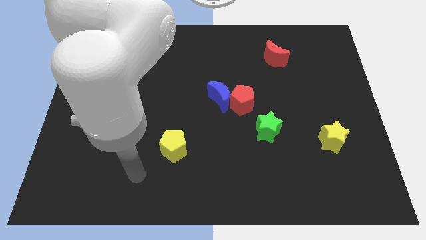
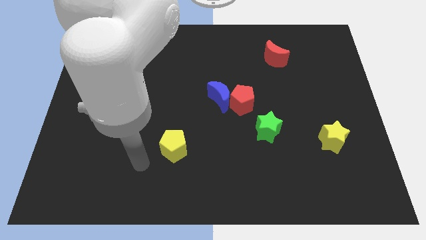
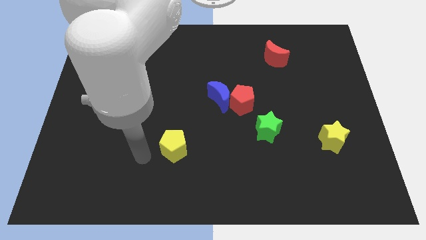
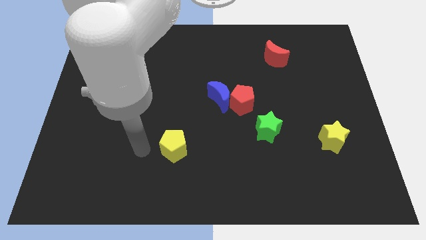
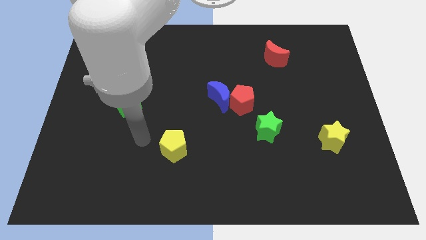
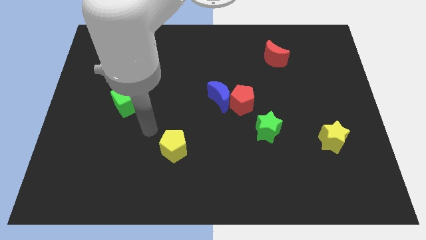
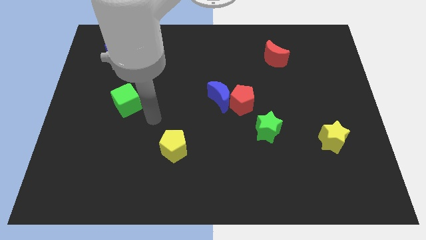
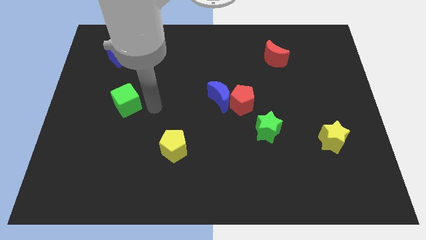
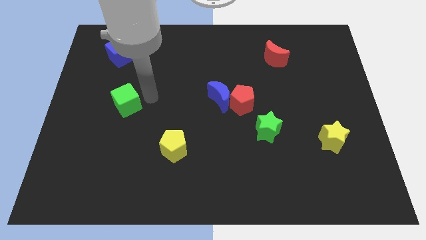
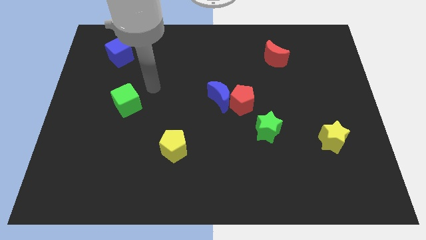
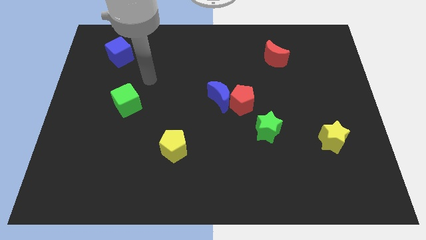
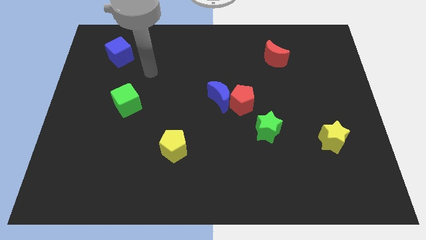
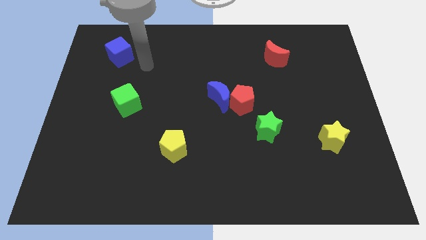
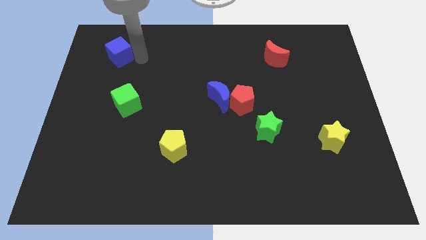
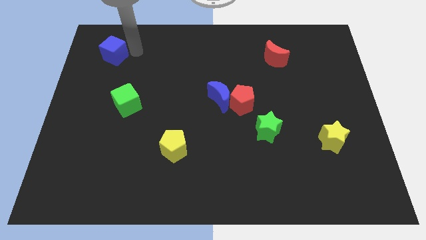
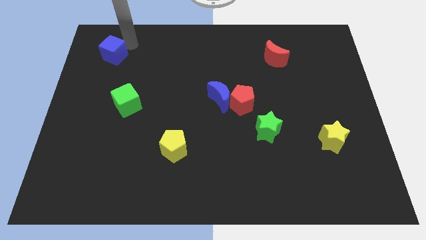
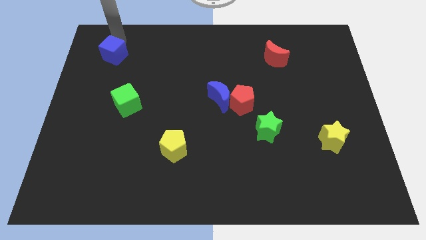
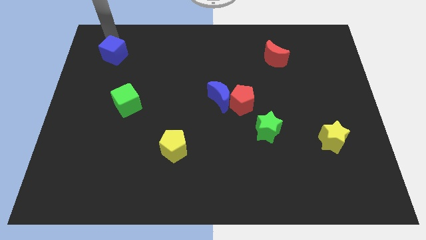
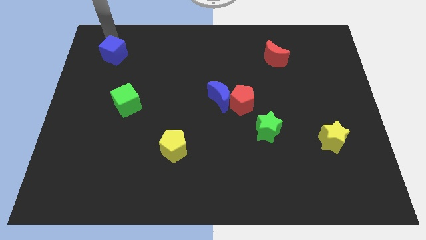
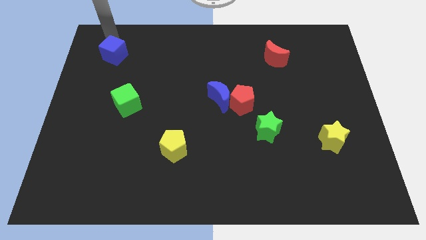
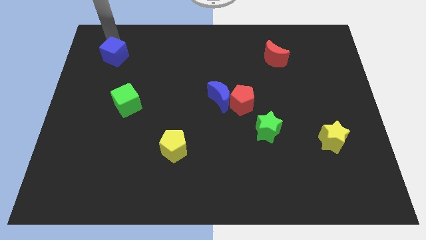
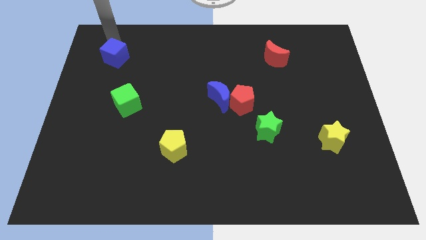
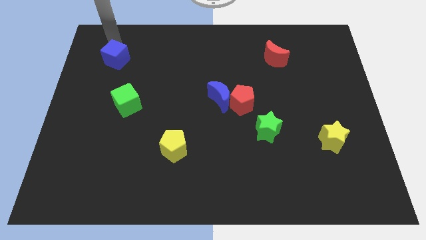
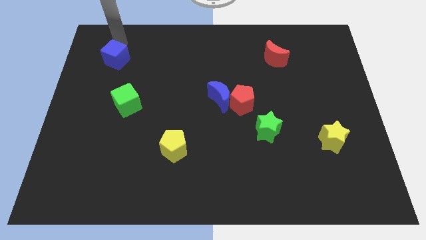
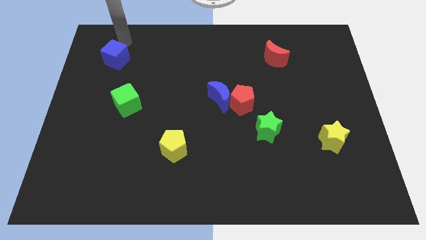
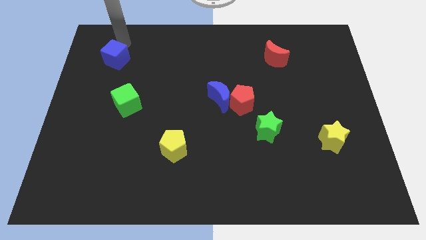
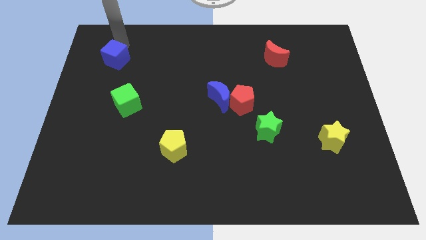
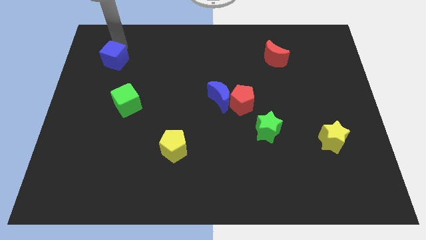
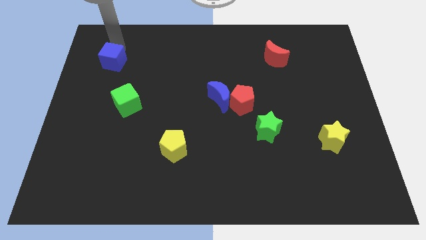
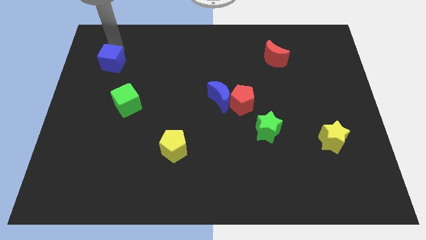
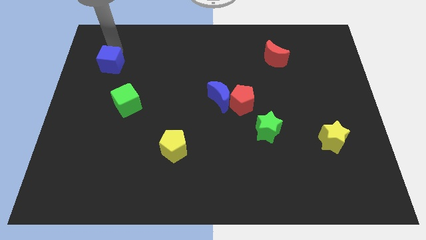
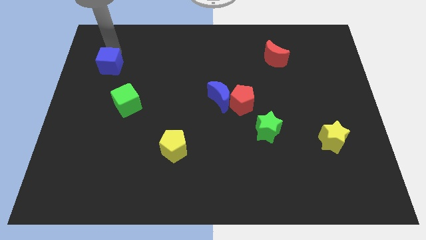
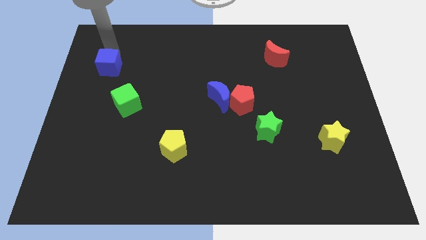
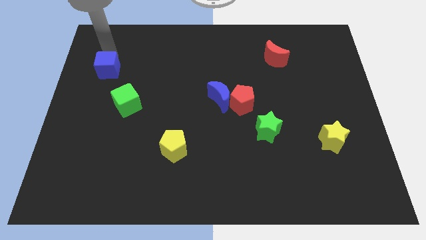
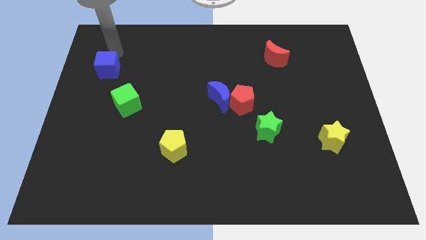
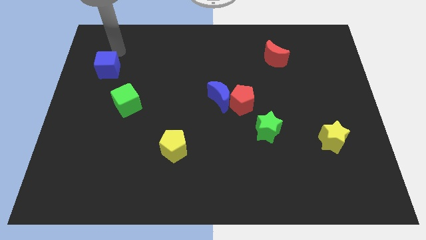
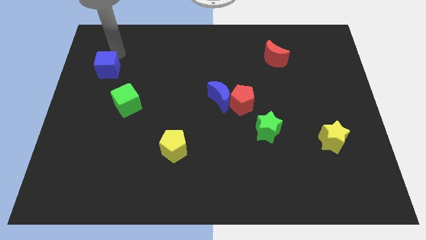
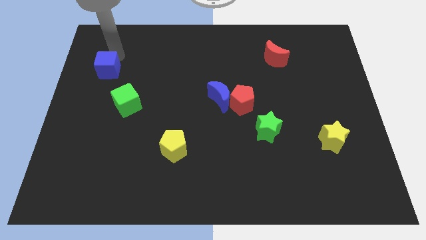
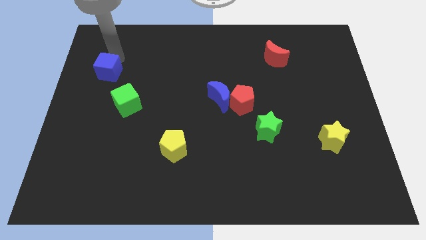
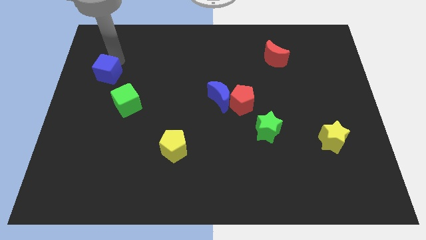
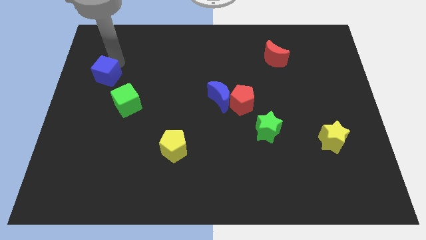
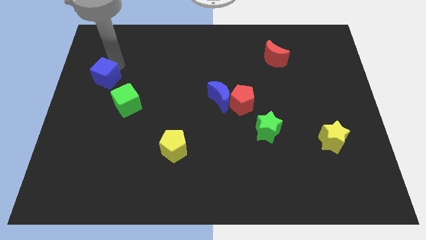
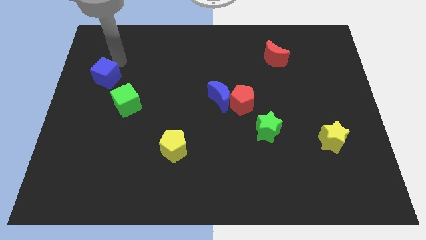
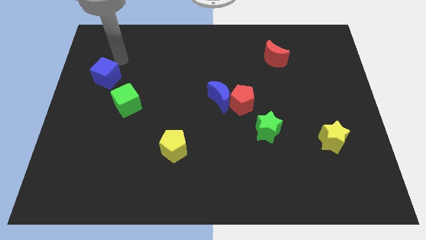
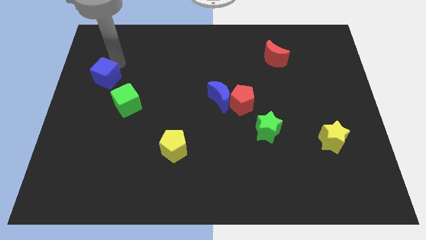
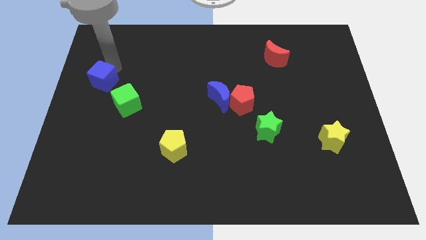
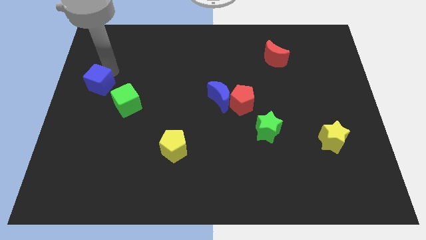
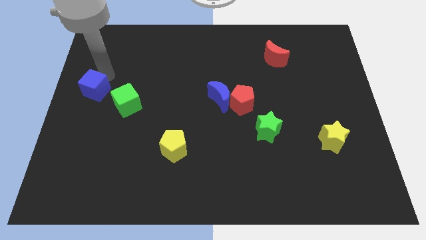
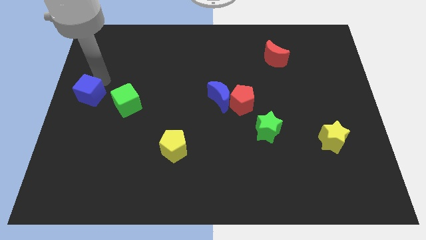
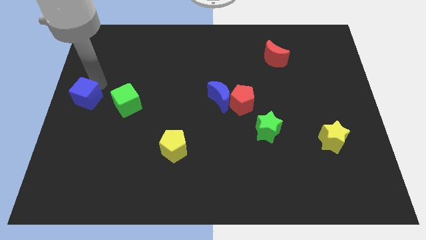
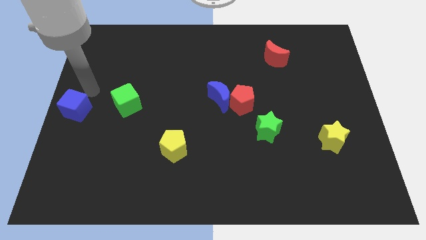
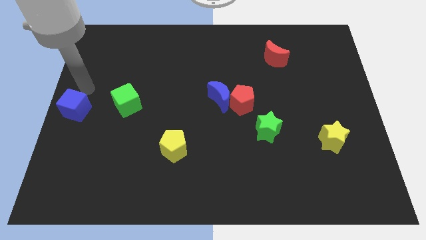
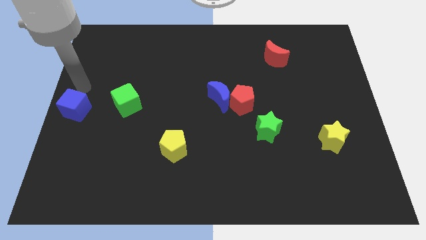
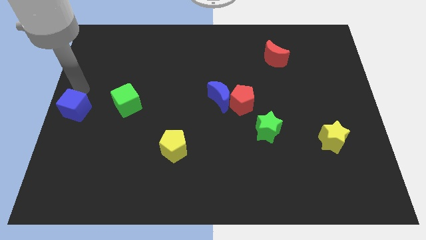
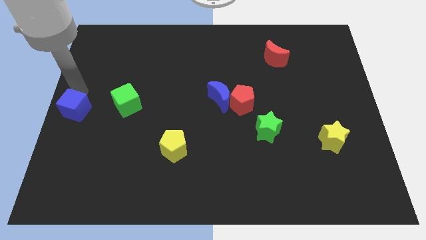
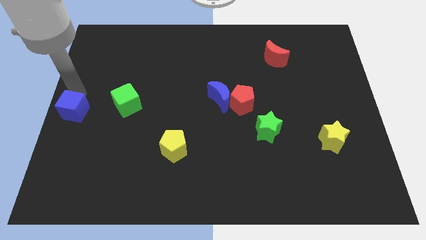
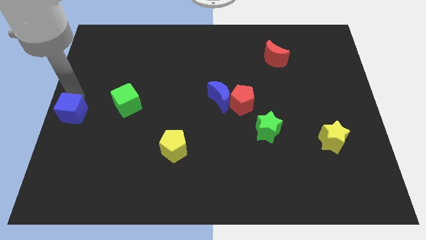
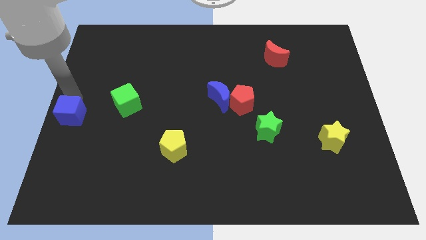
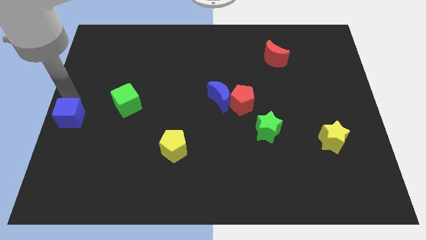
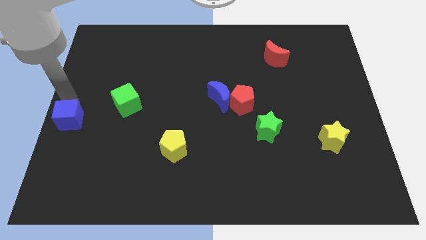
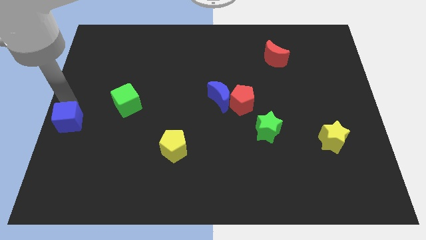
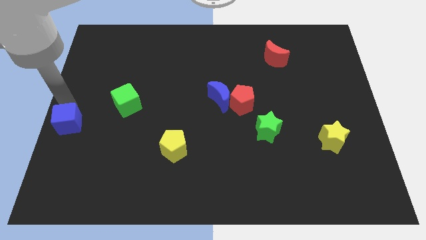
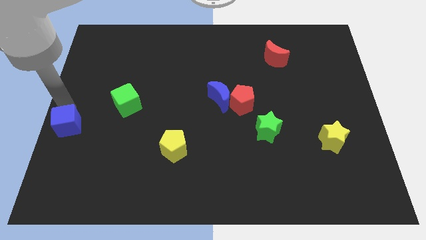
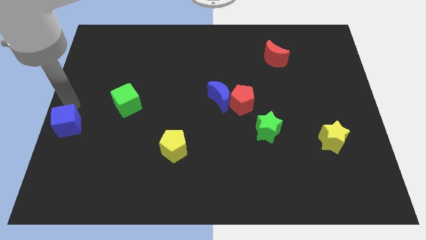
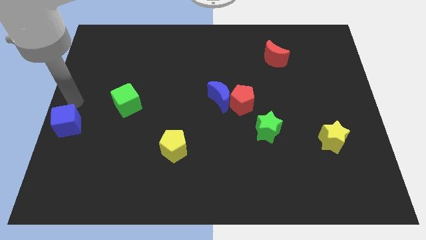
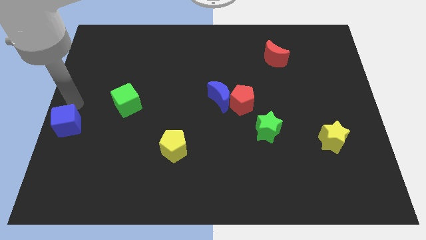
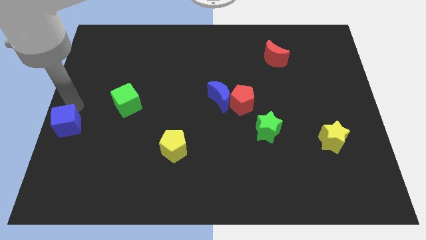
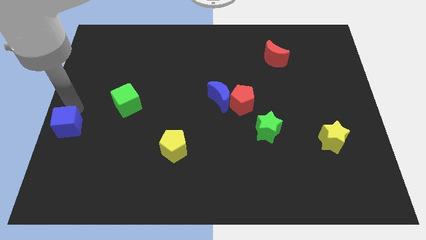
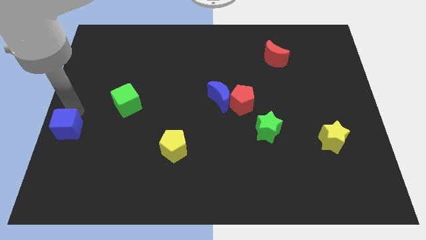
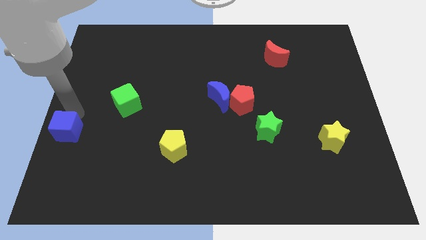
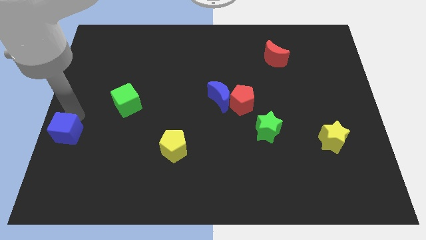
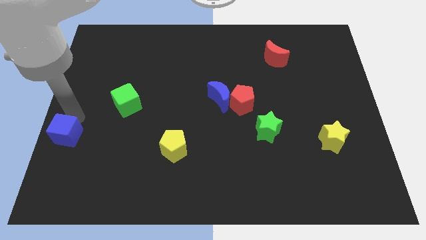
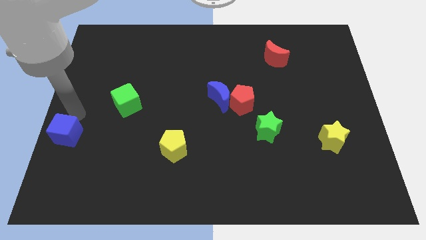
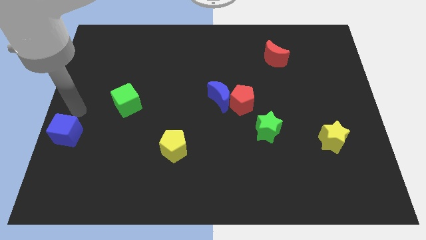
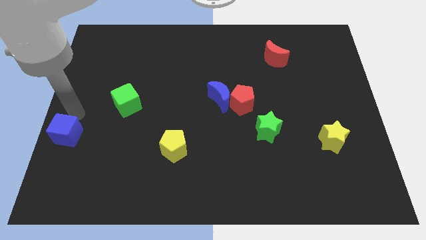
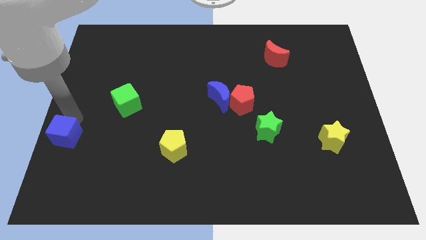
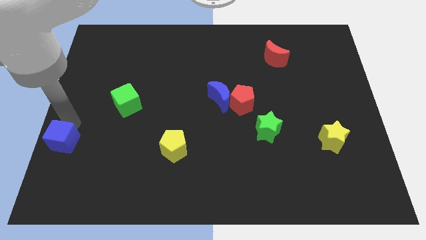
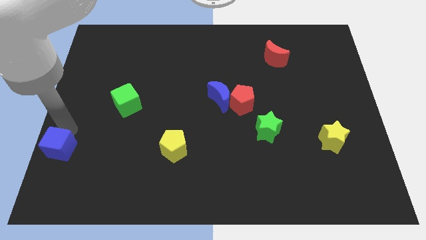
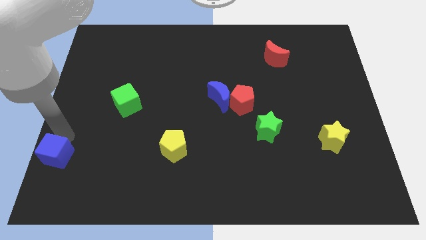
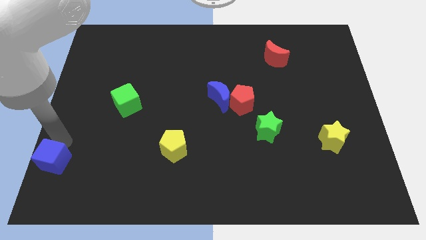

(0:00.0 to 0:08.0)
slide the blue cube to the bottom left corner

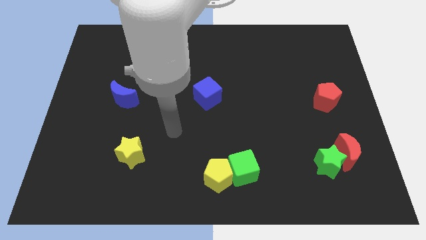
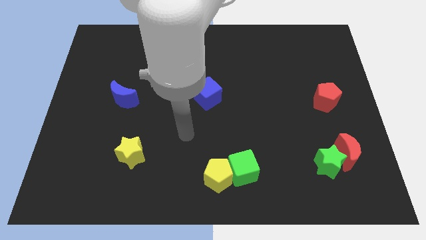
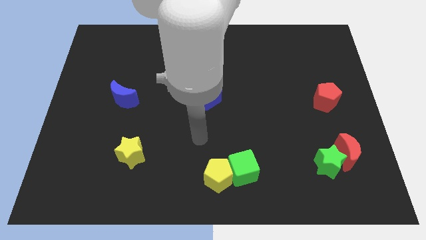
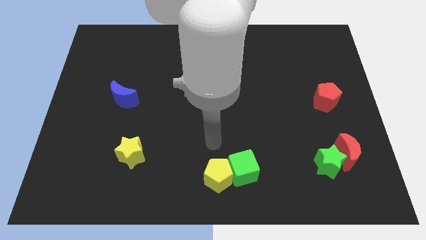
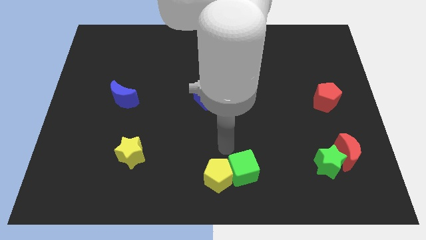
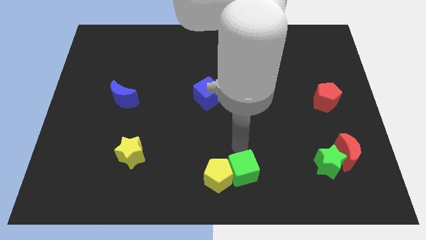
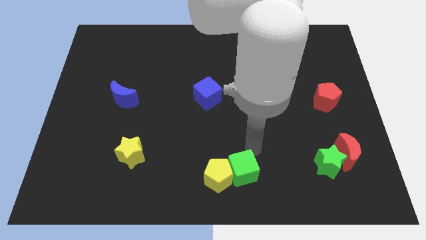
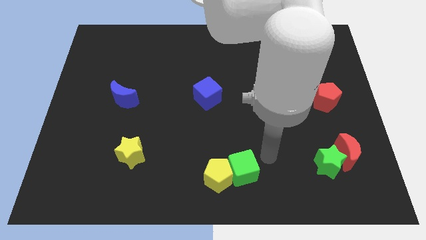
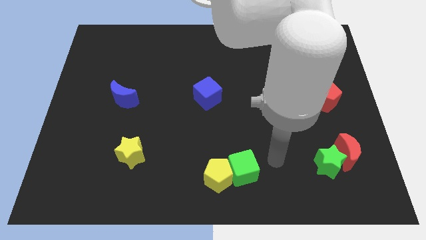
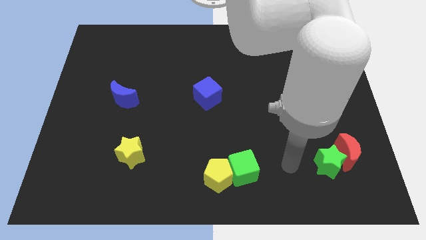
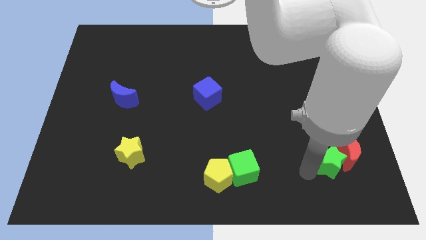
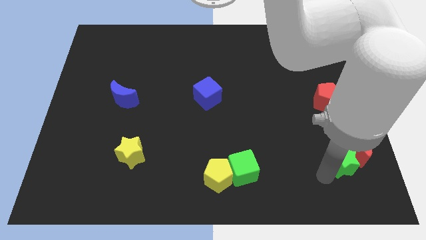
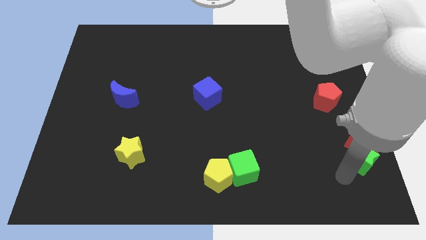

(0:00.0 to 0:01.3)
slide the red moon to the center right
